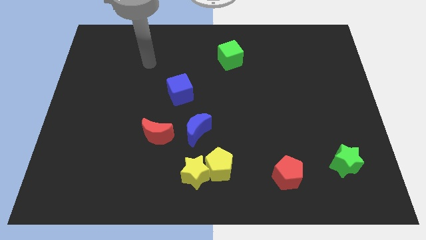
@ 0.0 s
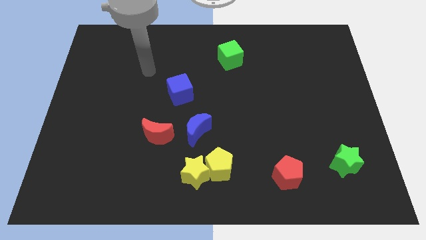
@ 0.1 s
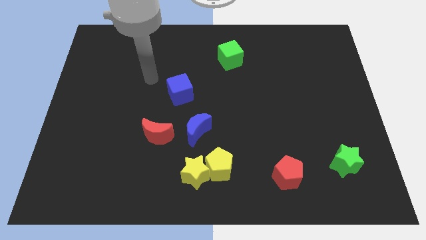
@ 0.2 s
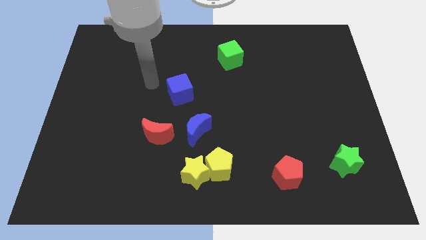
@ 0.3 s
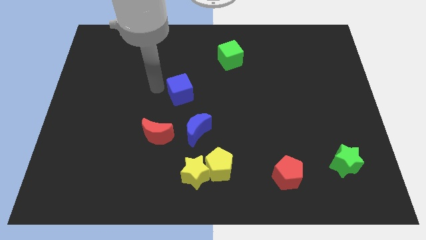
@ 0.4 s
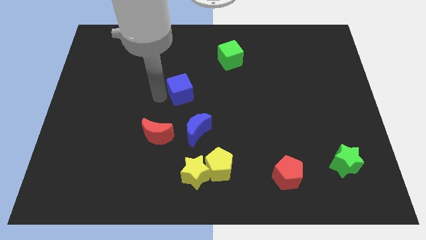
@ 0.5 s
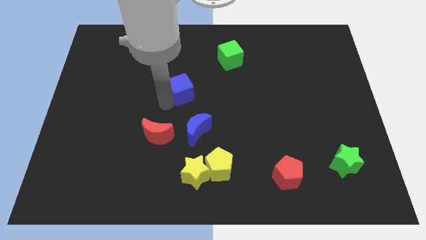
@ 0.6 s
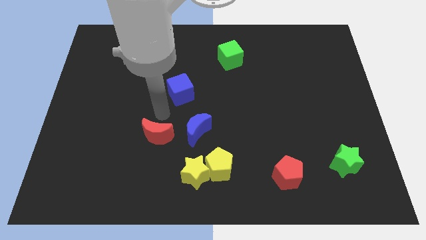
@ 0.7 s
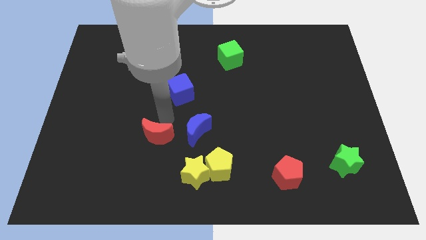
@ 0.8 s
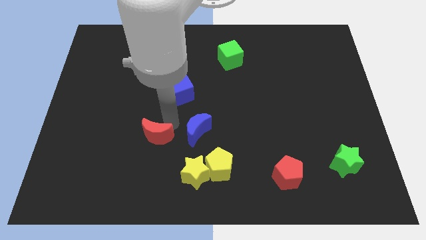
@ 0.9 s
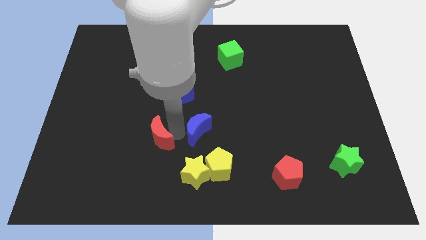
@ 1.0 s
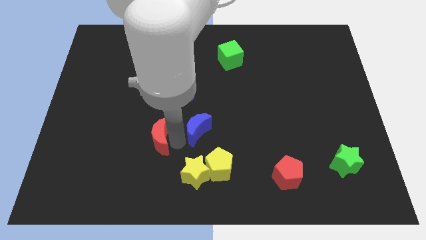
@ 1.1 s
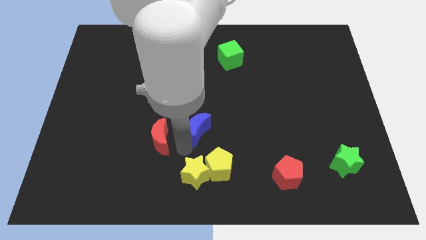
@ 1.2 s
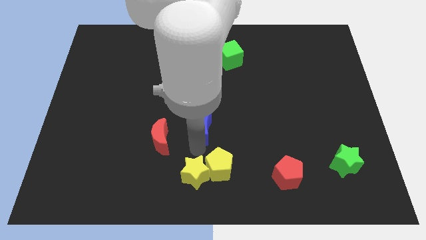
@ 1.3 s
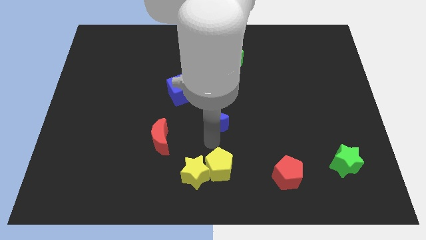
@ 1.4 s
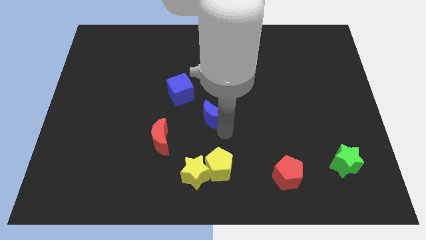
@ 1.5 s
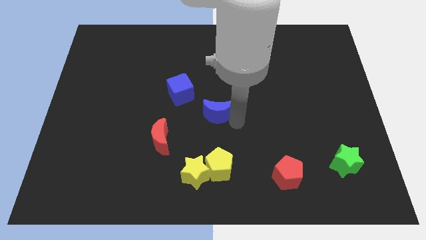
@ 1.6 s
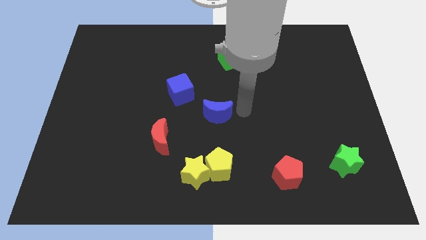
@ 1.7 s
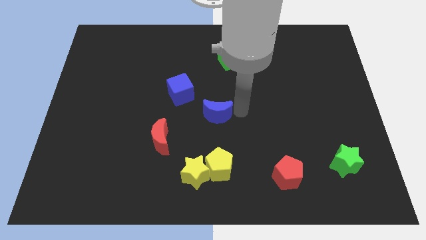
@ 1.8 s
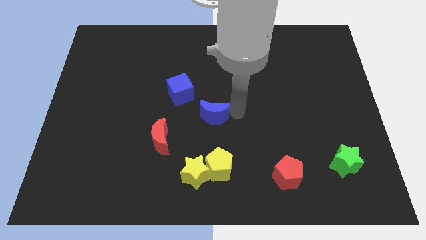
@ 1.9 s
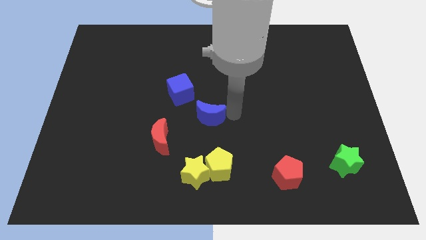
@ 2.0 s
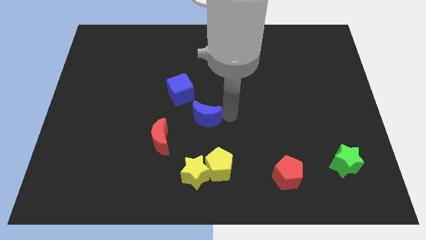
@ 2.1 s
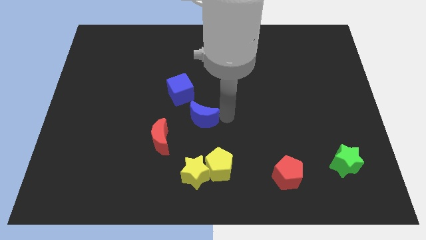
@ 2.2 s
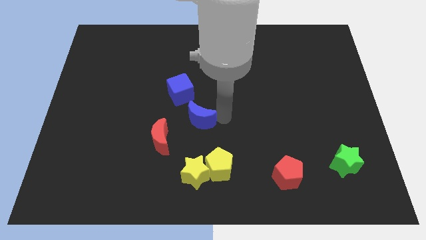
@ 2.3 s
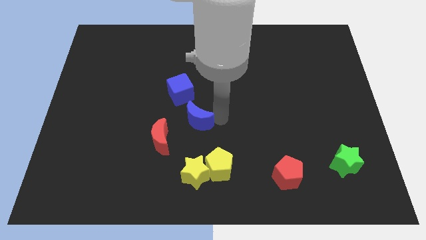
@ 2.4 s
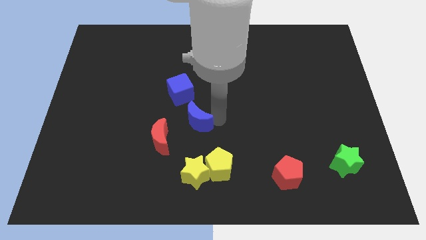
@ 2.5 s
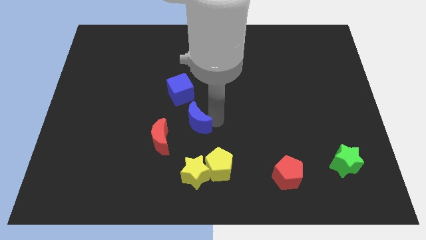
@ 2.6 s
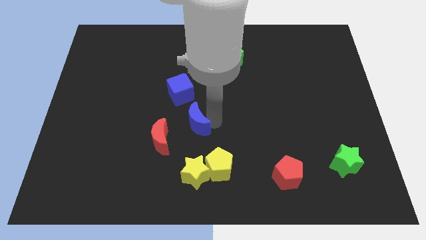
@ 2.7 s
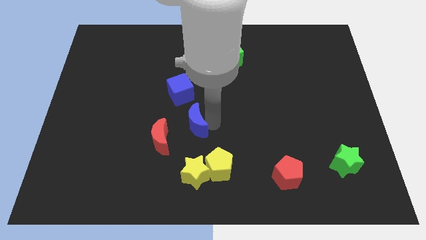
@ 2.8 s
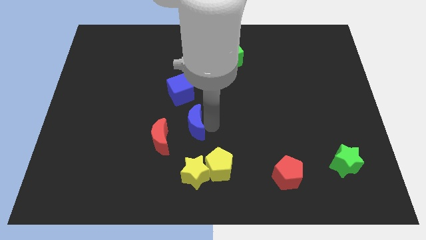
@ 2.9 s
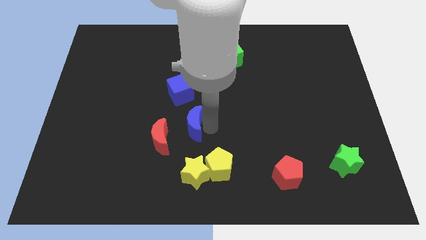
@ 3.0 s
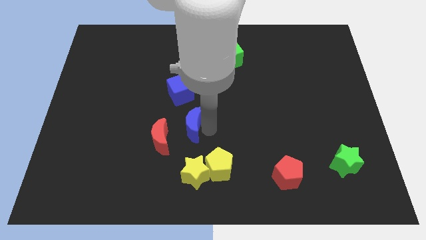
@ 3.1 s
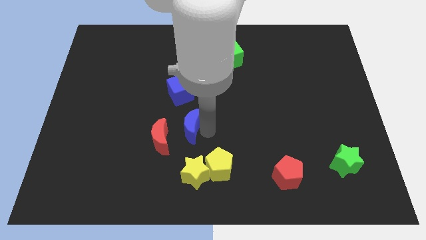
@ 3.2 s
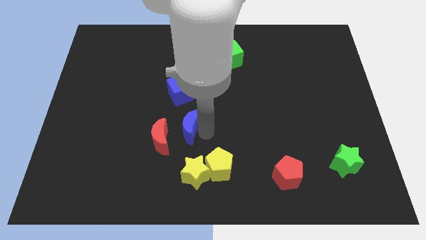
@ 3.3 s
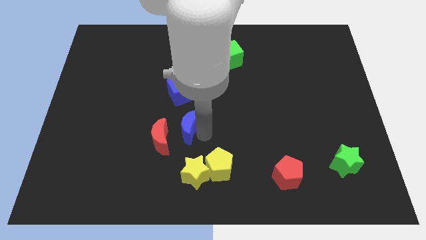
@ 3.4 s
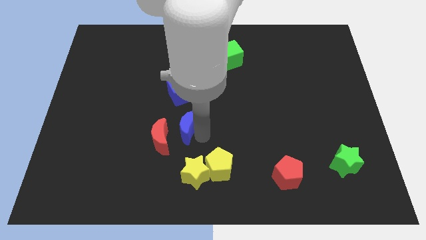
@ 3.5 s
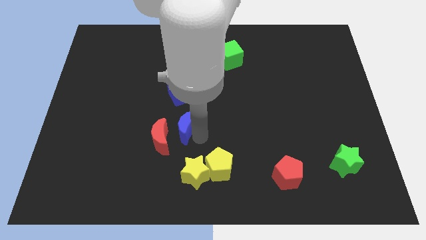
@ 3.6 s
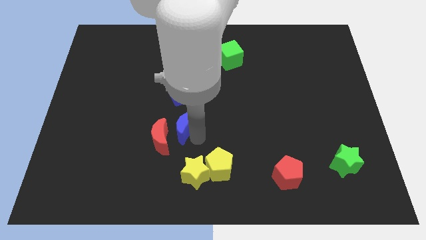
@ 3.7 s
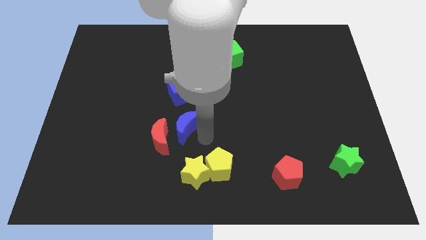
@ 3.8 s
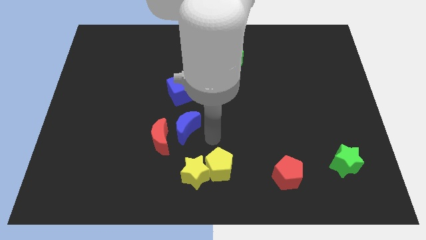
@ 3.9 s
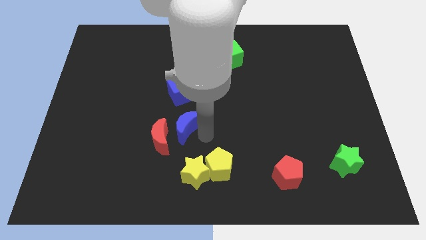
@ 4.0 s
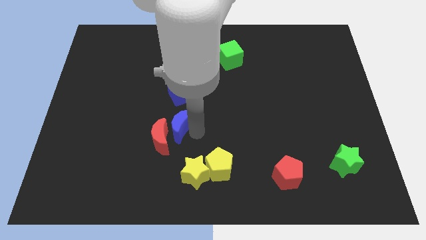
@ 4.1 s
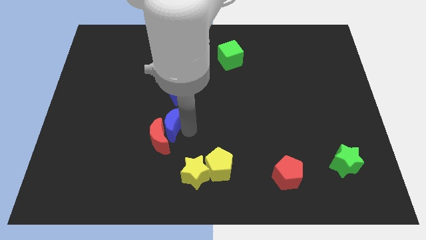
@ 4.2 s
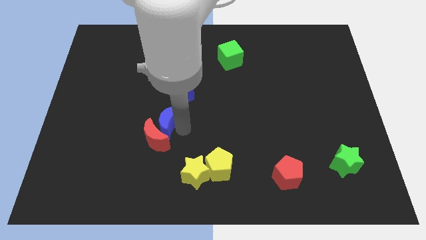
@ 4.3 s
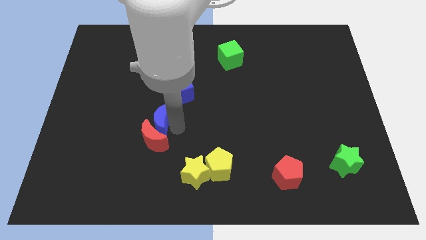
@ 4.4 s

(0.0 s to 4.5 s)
push the blue moon left slightly

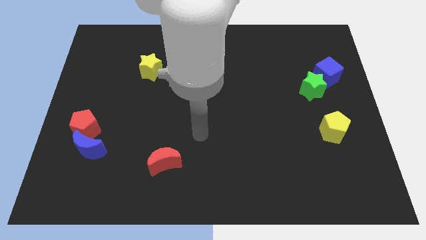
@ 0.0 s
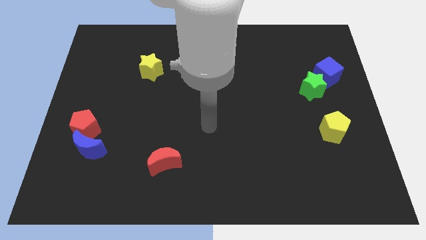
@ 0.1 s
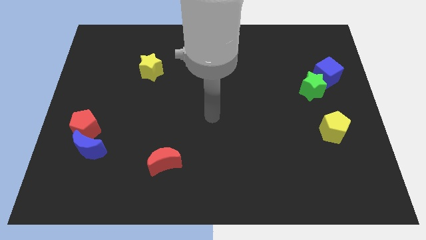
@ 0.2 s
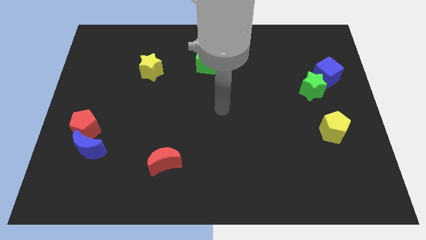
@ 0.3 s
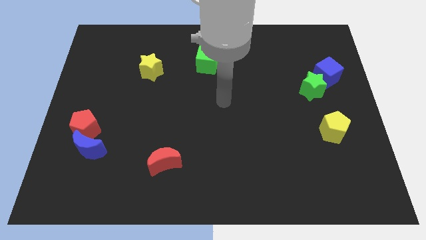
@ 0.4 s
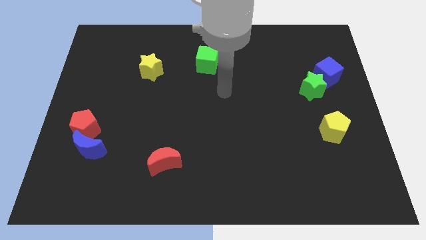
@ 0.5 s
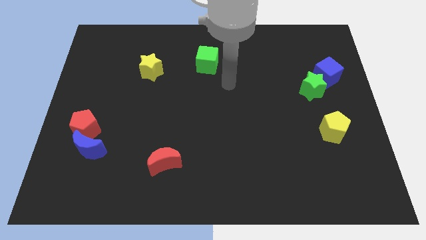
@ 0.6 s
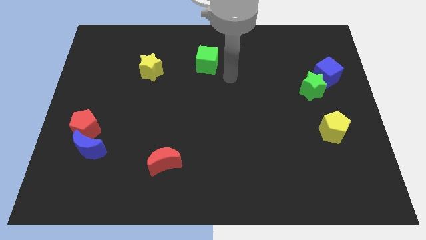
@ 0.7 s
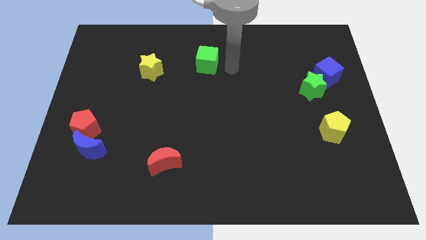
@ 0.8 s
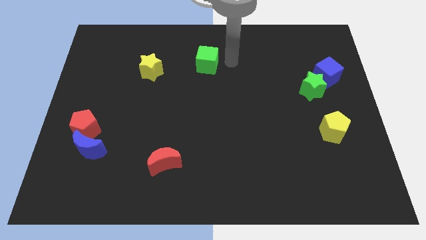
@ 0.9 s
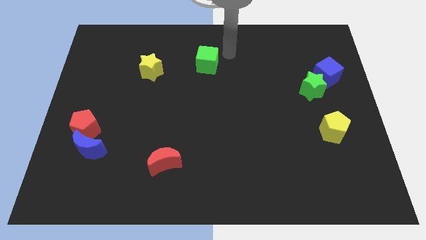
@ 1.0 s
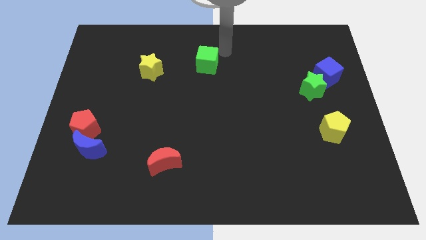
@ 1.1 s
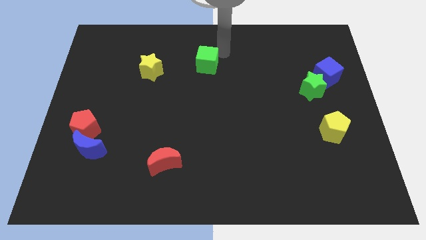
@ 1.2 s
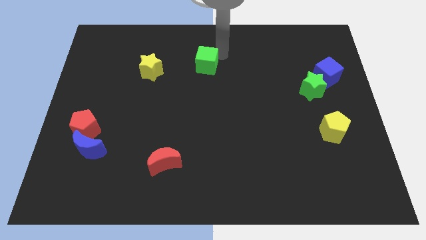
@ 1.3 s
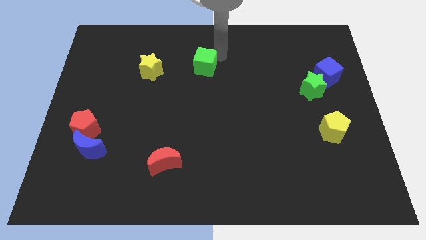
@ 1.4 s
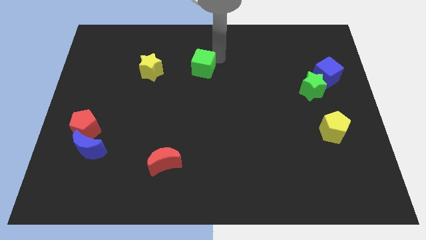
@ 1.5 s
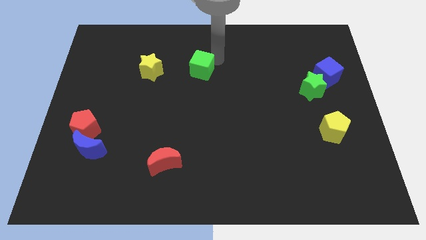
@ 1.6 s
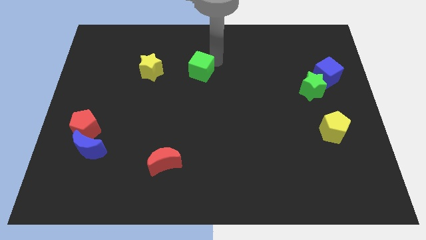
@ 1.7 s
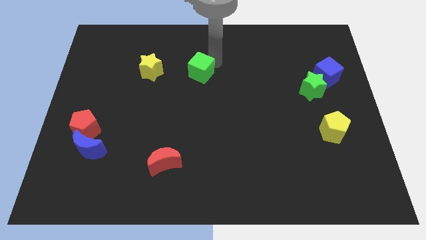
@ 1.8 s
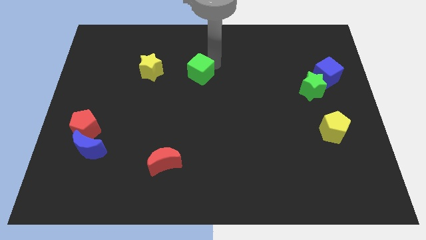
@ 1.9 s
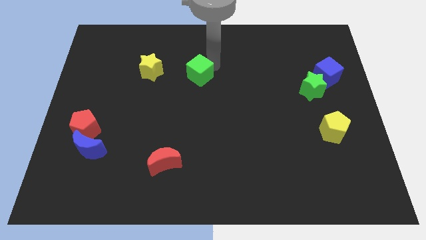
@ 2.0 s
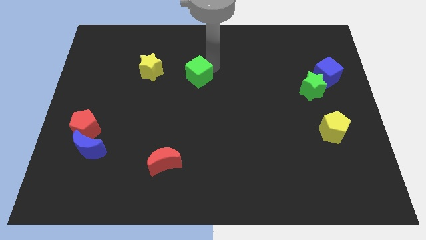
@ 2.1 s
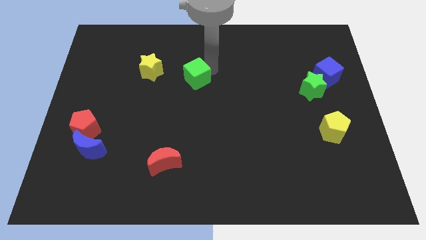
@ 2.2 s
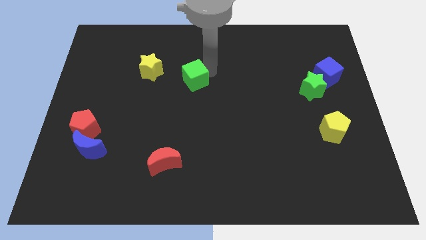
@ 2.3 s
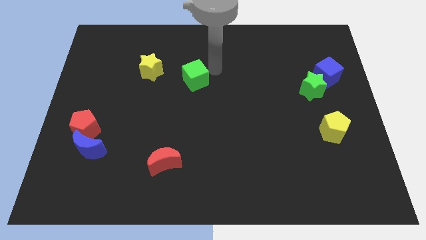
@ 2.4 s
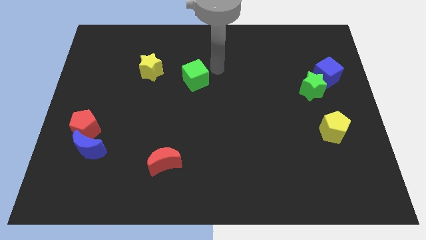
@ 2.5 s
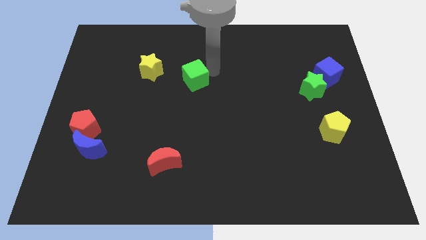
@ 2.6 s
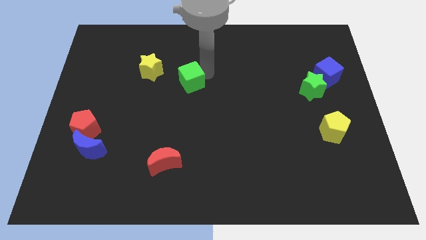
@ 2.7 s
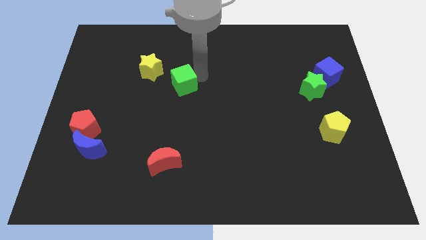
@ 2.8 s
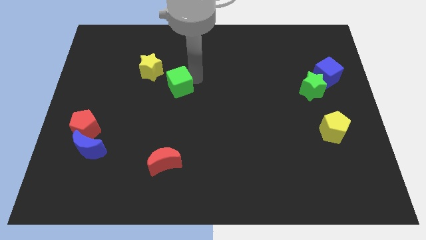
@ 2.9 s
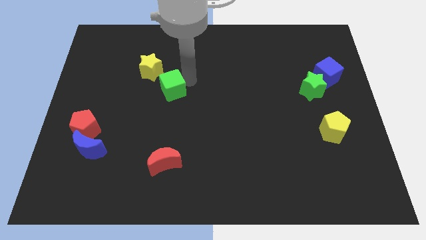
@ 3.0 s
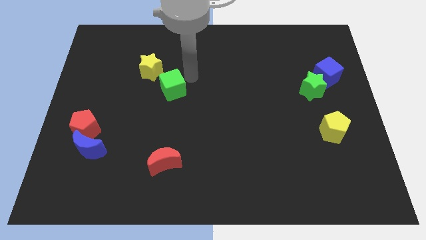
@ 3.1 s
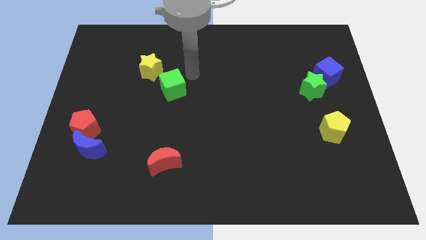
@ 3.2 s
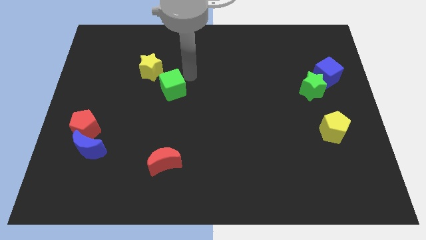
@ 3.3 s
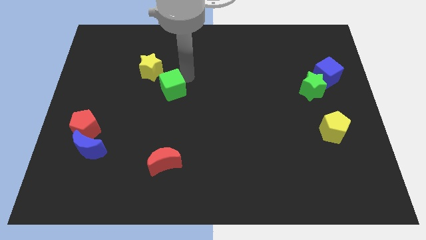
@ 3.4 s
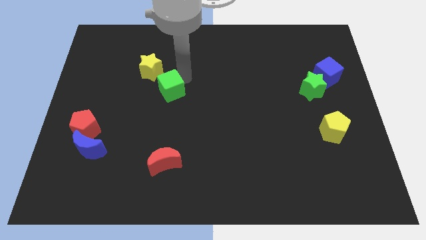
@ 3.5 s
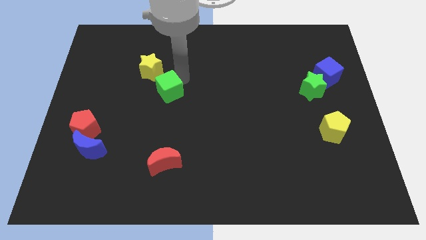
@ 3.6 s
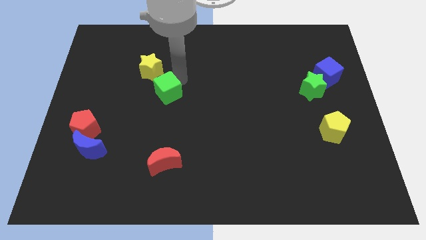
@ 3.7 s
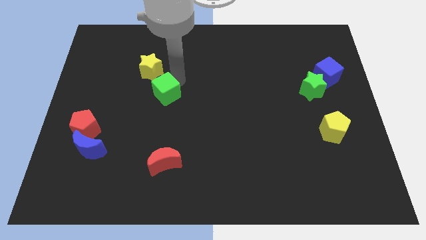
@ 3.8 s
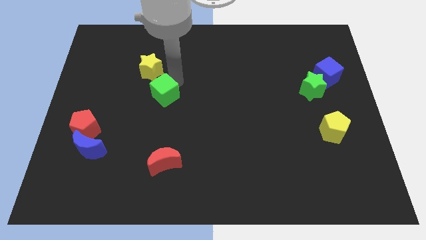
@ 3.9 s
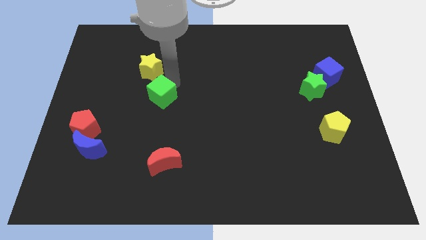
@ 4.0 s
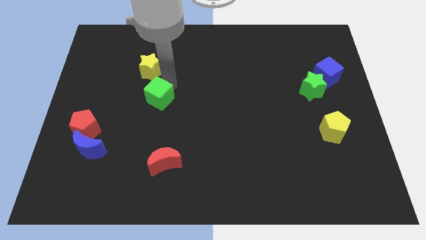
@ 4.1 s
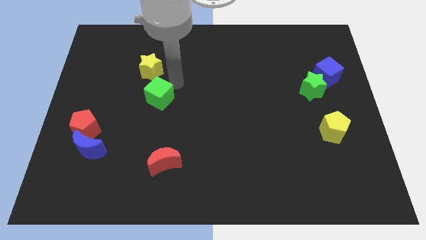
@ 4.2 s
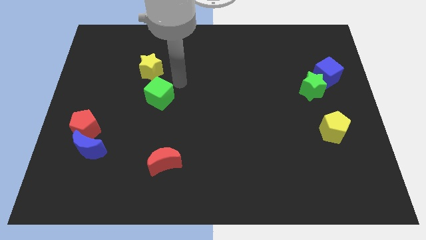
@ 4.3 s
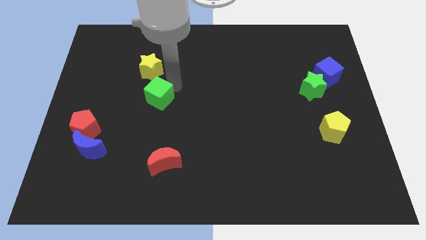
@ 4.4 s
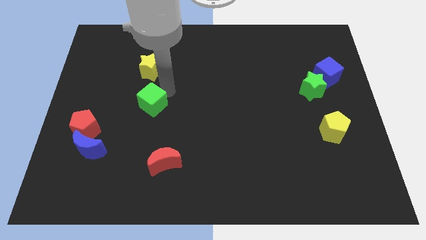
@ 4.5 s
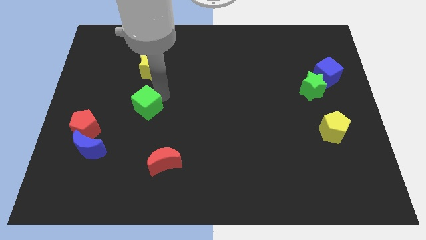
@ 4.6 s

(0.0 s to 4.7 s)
move the green cube down and left diagonally
